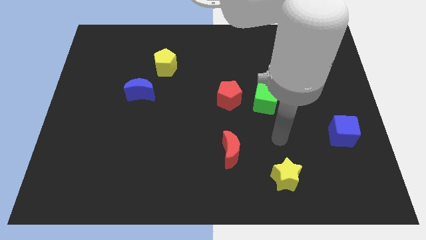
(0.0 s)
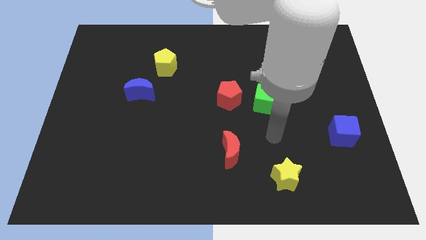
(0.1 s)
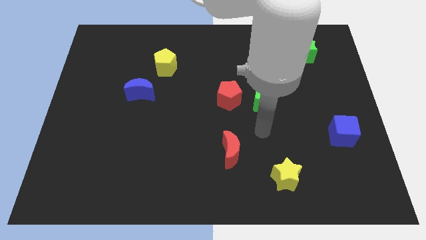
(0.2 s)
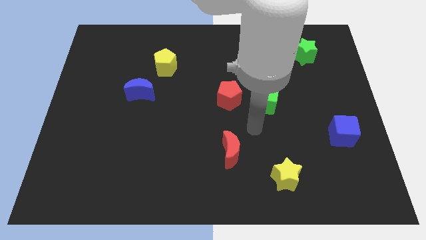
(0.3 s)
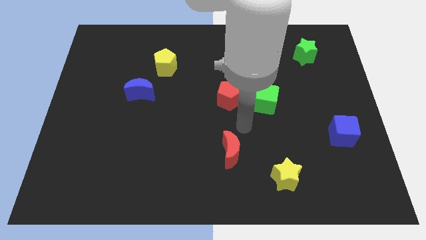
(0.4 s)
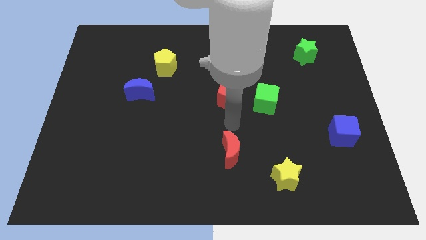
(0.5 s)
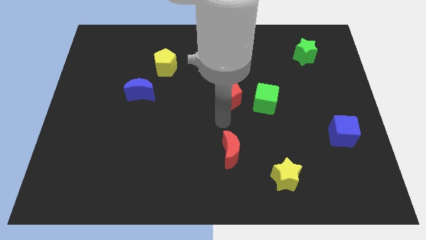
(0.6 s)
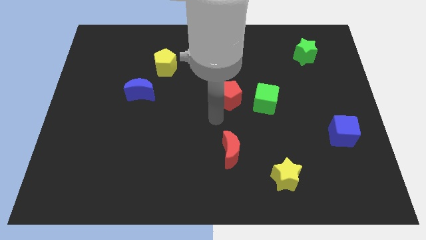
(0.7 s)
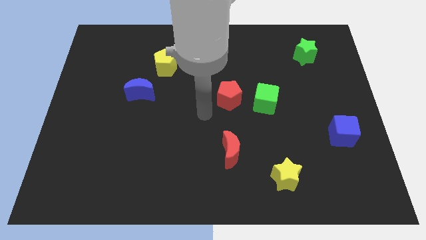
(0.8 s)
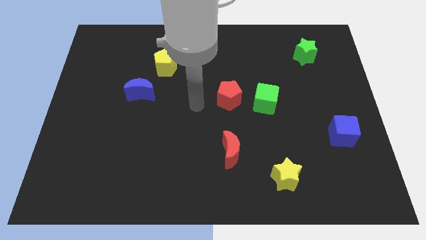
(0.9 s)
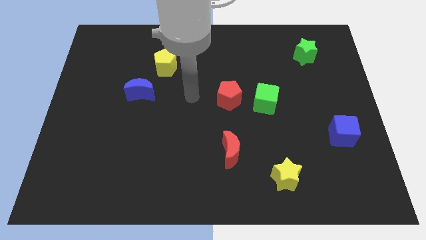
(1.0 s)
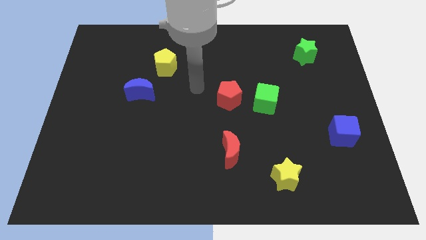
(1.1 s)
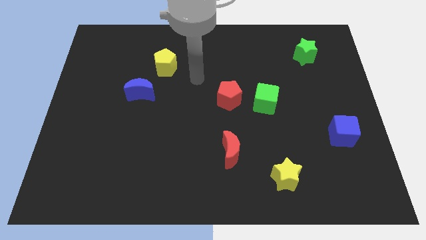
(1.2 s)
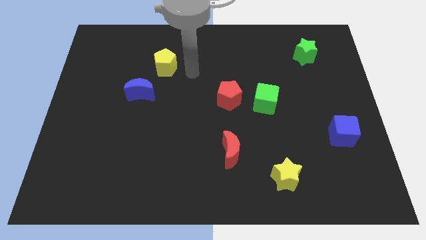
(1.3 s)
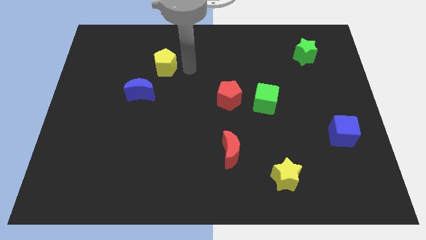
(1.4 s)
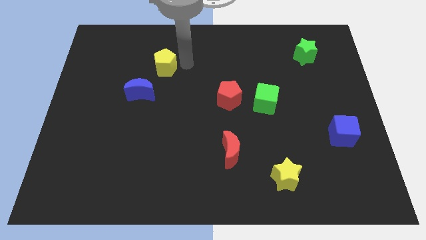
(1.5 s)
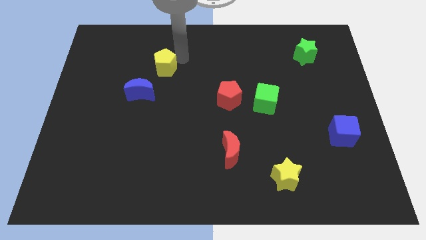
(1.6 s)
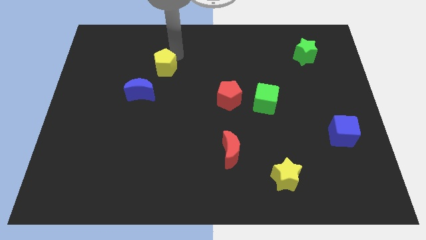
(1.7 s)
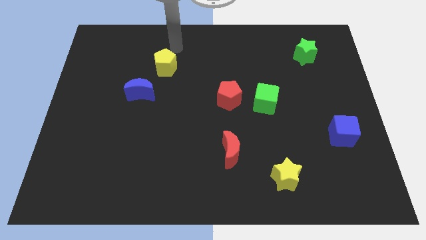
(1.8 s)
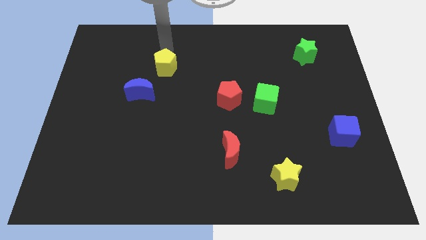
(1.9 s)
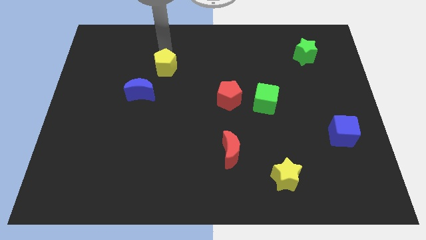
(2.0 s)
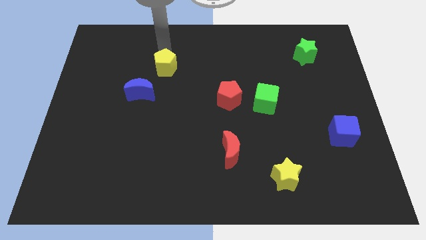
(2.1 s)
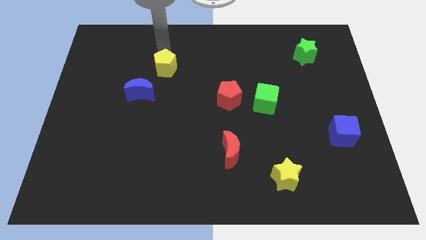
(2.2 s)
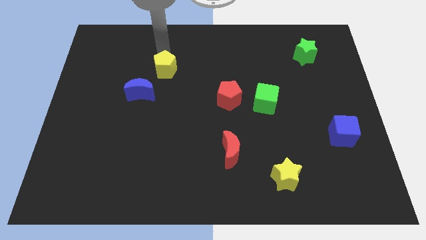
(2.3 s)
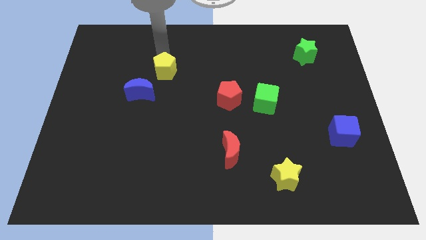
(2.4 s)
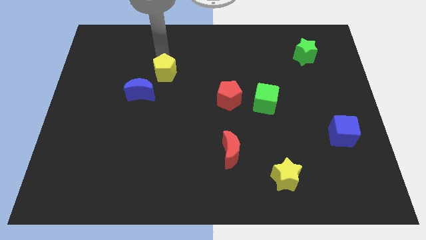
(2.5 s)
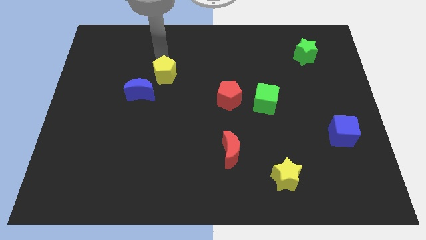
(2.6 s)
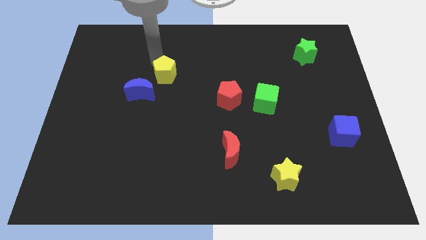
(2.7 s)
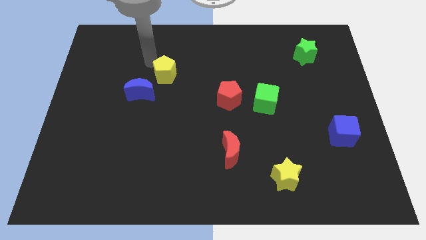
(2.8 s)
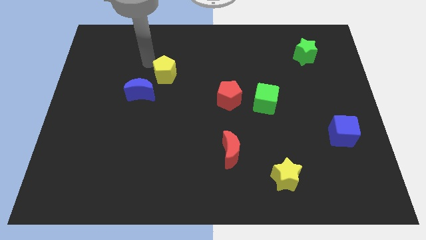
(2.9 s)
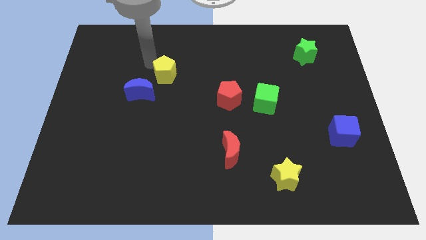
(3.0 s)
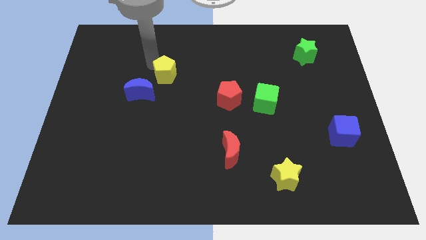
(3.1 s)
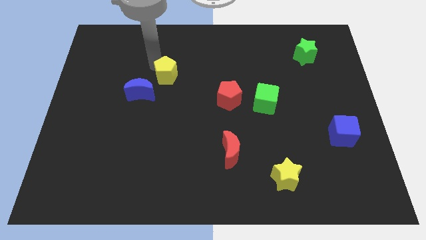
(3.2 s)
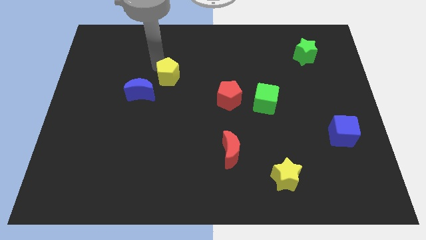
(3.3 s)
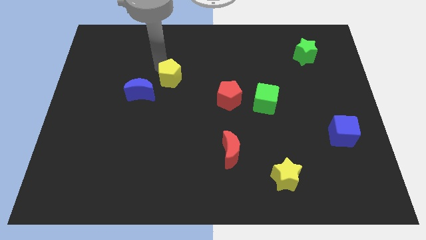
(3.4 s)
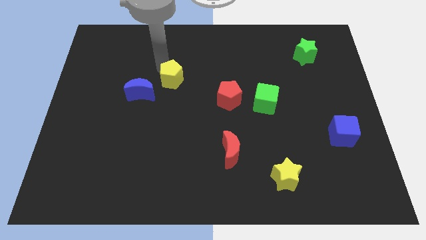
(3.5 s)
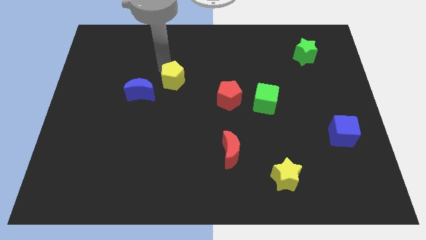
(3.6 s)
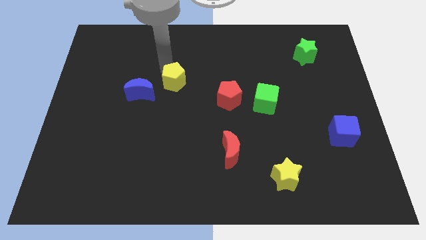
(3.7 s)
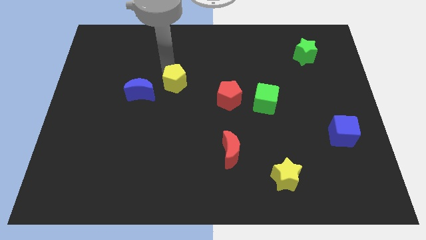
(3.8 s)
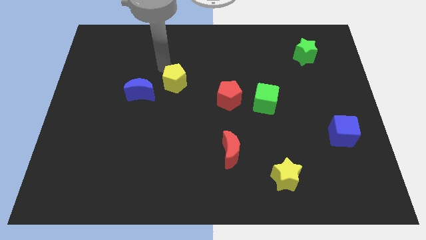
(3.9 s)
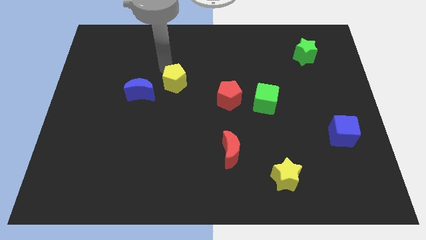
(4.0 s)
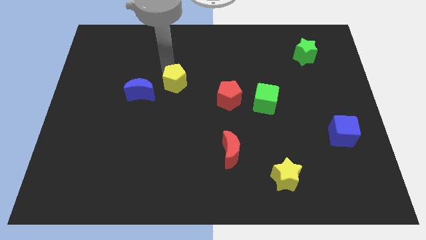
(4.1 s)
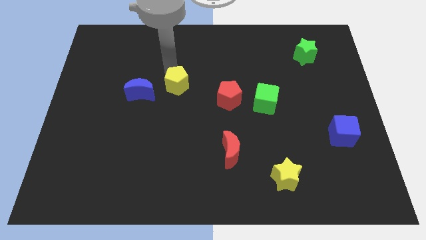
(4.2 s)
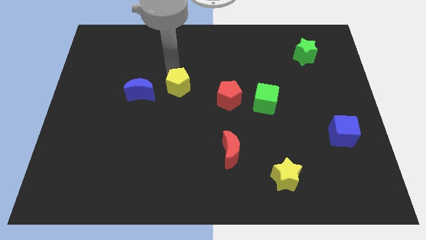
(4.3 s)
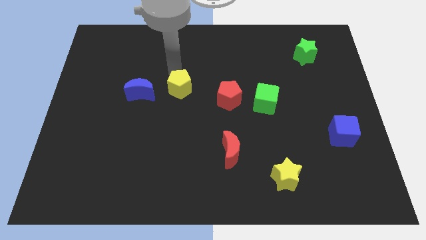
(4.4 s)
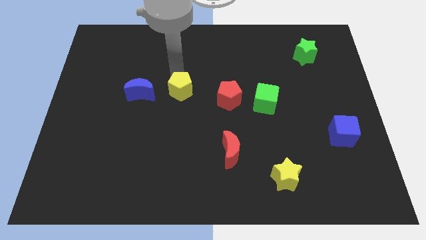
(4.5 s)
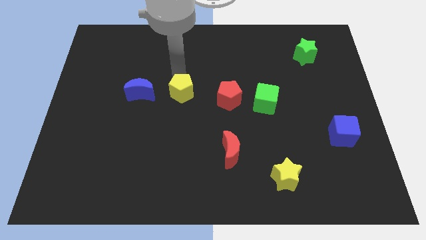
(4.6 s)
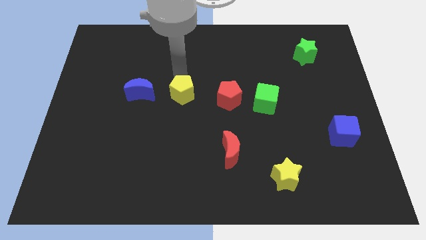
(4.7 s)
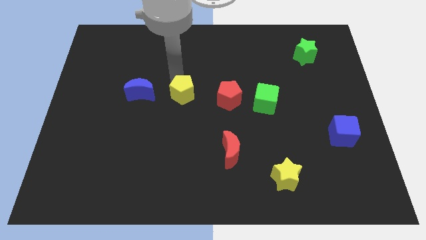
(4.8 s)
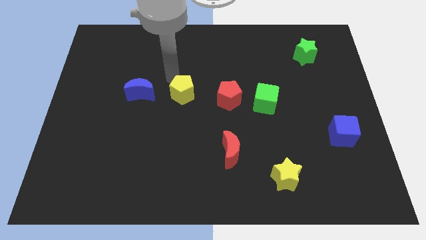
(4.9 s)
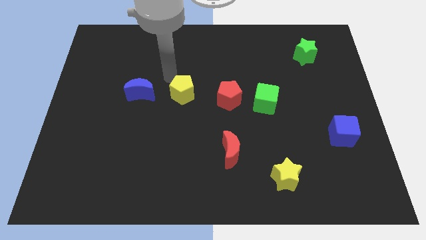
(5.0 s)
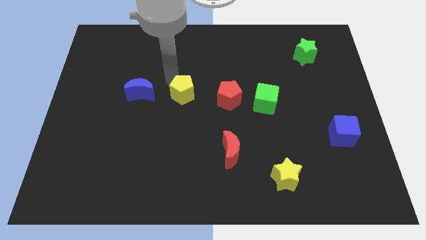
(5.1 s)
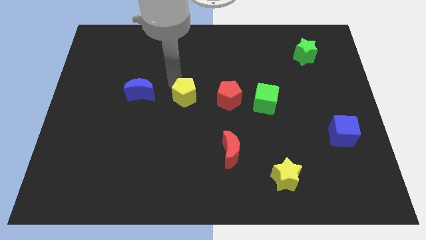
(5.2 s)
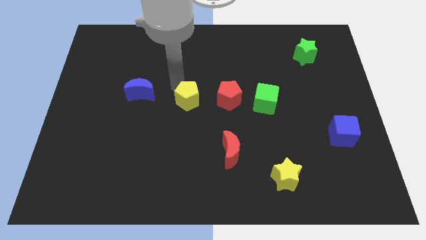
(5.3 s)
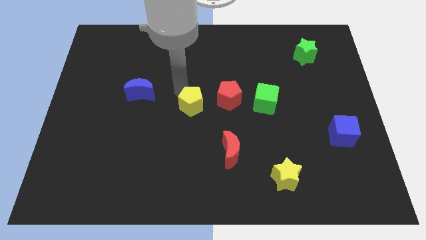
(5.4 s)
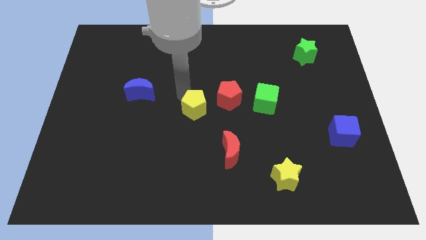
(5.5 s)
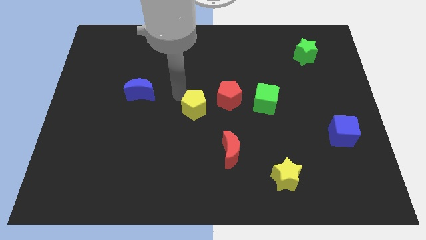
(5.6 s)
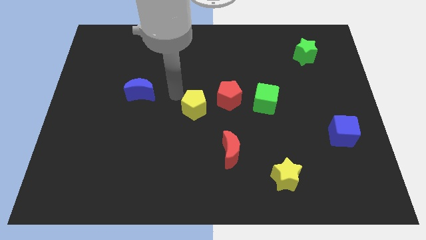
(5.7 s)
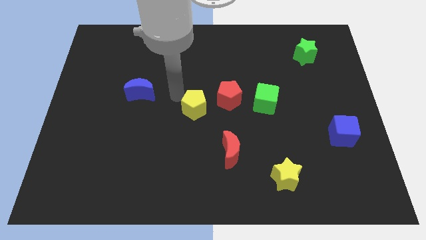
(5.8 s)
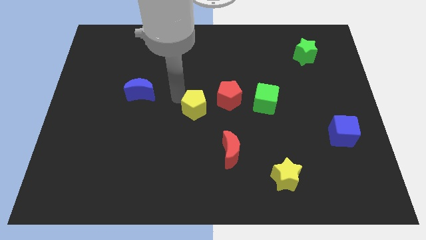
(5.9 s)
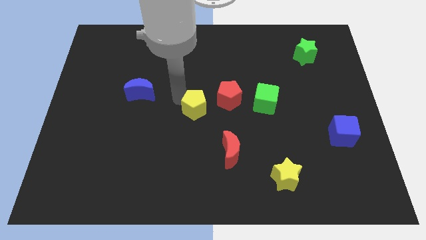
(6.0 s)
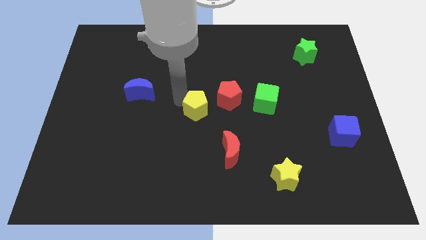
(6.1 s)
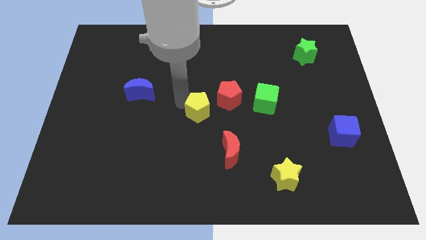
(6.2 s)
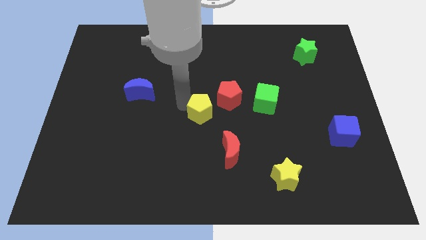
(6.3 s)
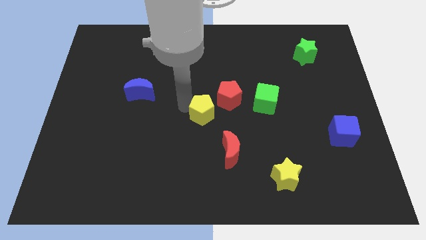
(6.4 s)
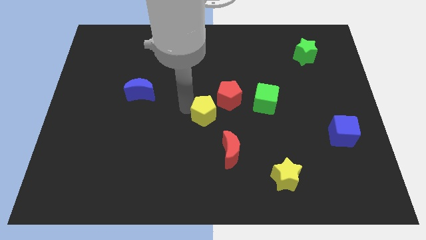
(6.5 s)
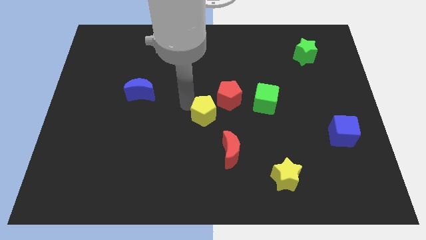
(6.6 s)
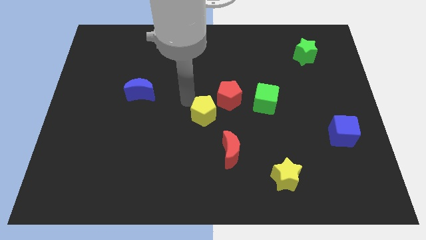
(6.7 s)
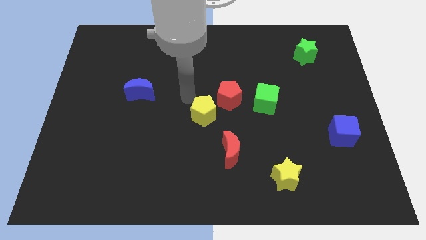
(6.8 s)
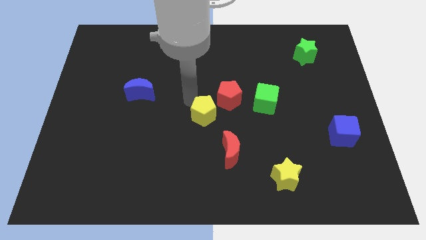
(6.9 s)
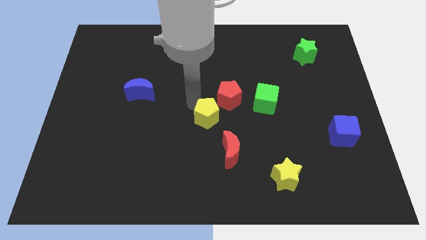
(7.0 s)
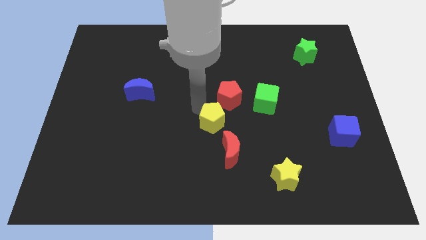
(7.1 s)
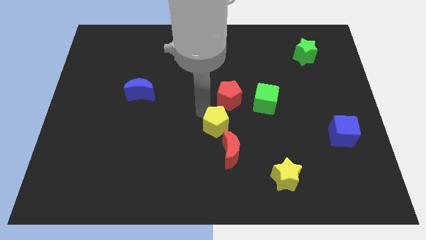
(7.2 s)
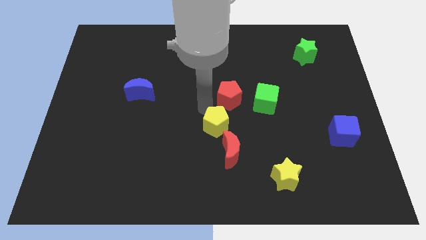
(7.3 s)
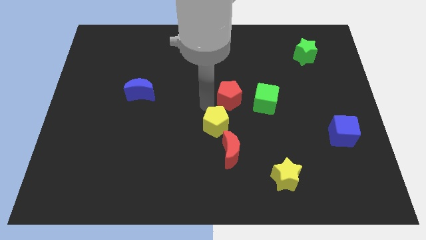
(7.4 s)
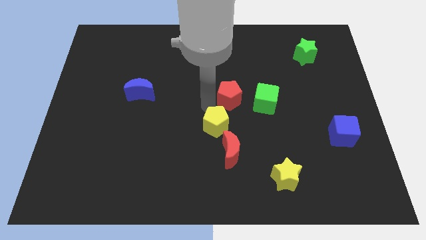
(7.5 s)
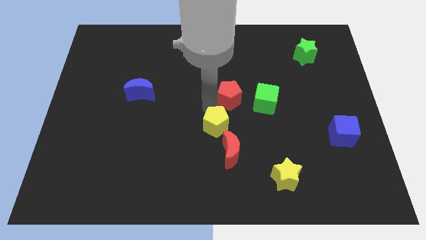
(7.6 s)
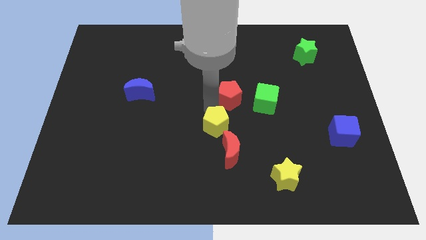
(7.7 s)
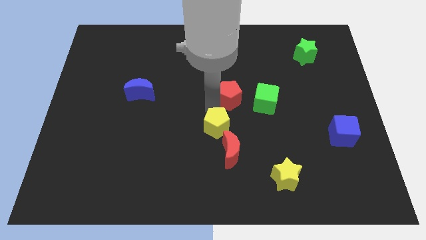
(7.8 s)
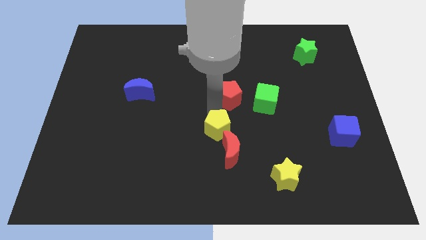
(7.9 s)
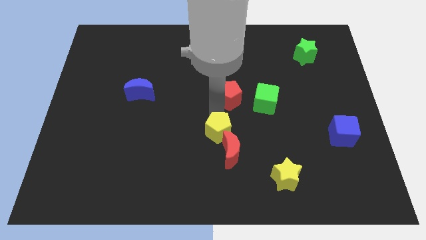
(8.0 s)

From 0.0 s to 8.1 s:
put the yellow pentagon next to the red moon
